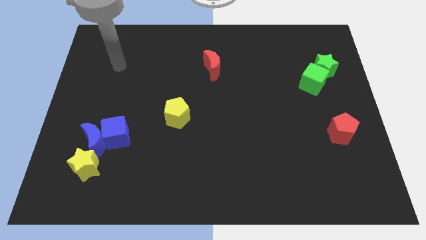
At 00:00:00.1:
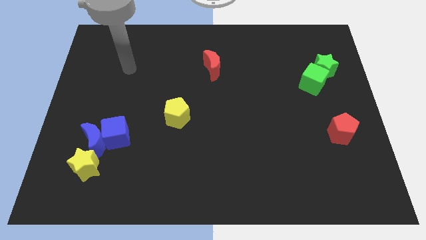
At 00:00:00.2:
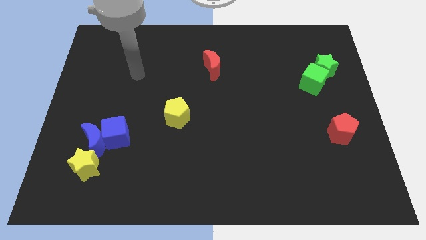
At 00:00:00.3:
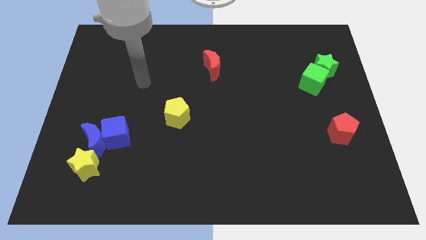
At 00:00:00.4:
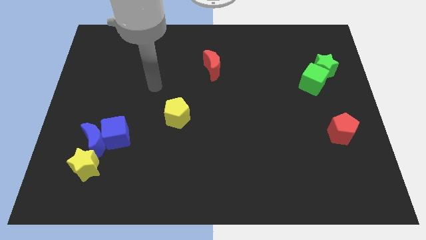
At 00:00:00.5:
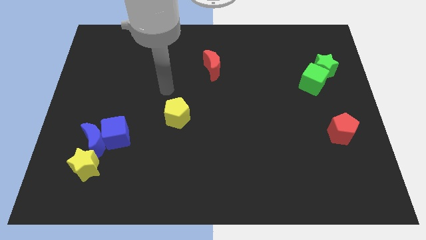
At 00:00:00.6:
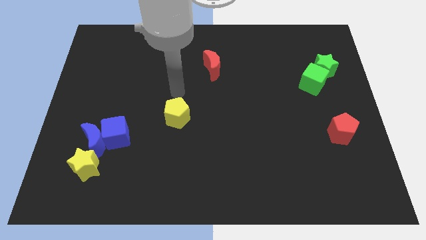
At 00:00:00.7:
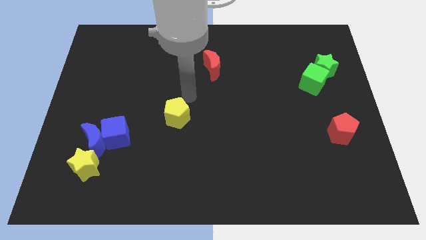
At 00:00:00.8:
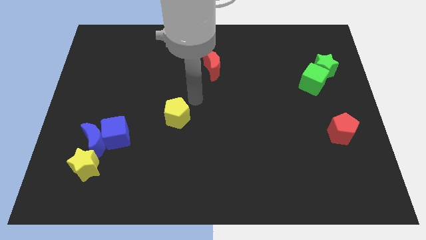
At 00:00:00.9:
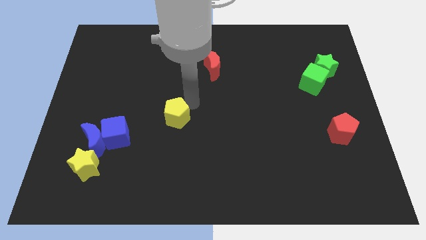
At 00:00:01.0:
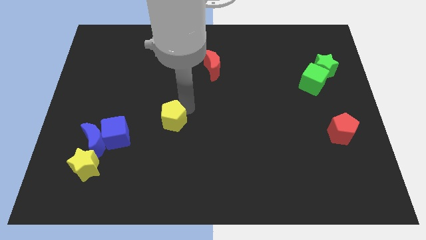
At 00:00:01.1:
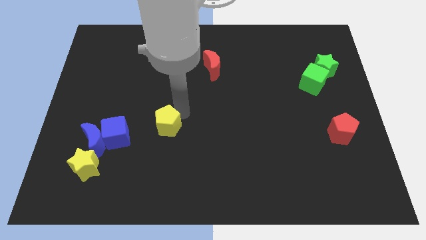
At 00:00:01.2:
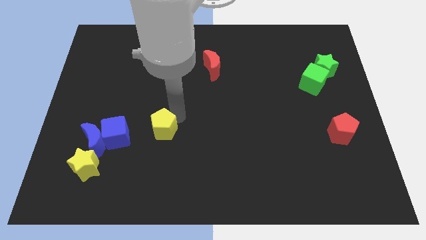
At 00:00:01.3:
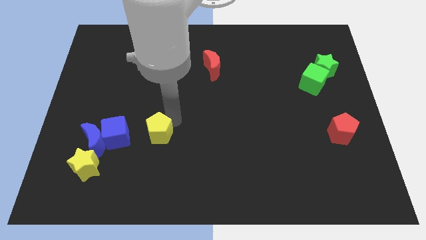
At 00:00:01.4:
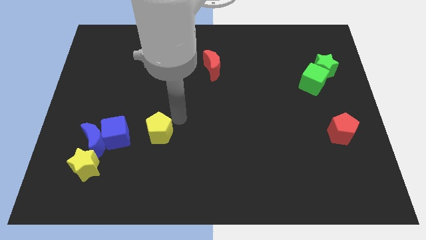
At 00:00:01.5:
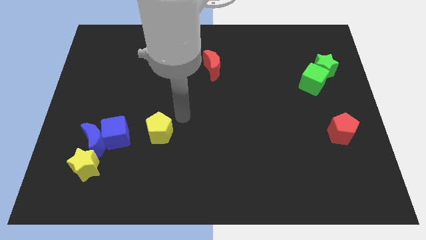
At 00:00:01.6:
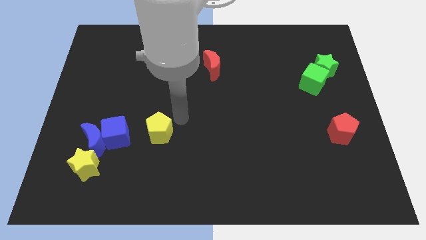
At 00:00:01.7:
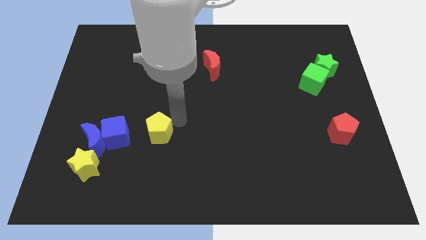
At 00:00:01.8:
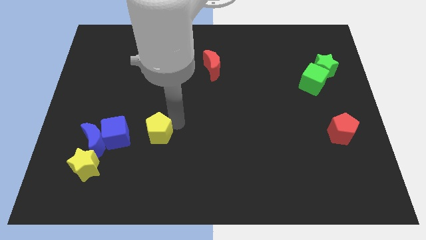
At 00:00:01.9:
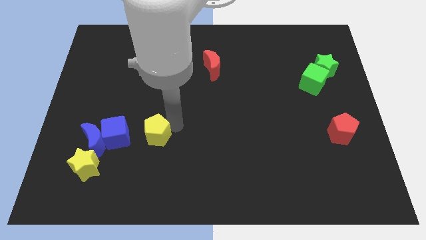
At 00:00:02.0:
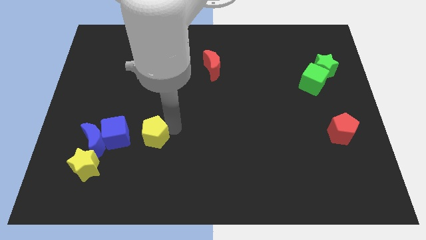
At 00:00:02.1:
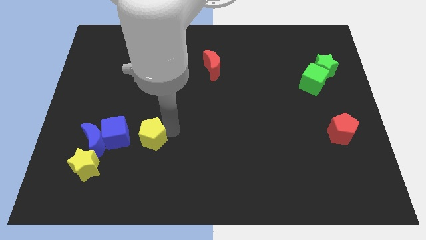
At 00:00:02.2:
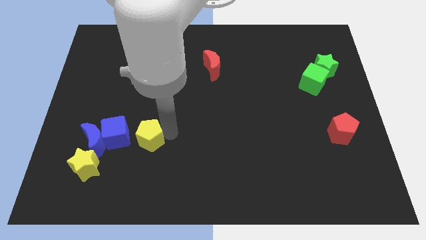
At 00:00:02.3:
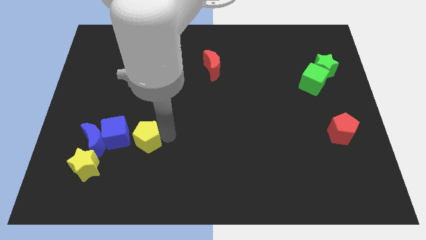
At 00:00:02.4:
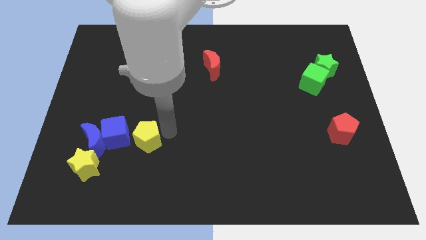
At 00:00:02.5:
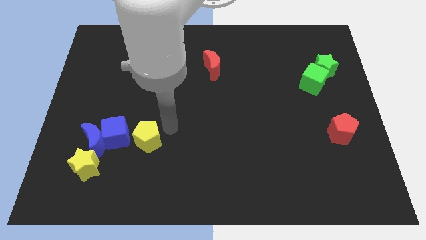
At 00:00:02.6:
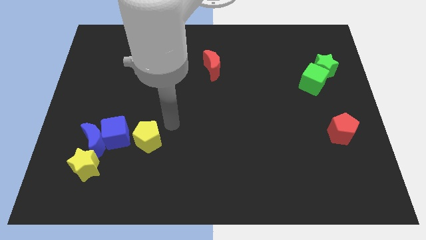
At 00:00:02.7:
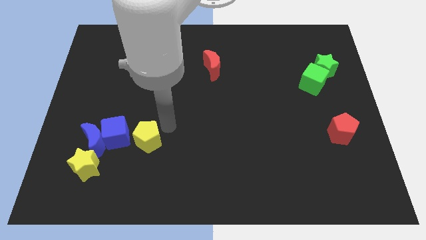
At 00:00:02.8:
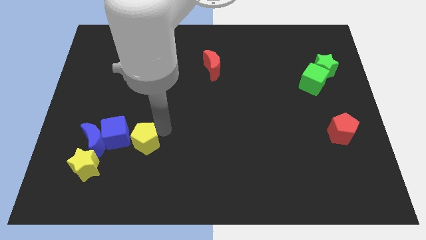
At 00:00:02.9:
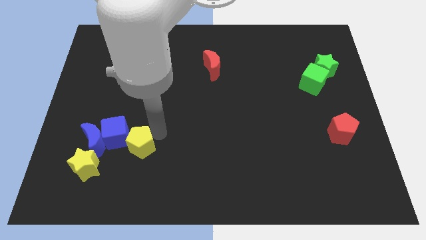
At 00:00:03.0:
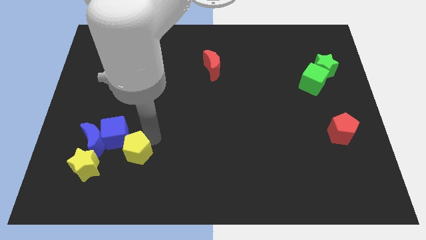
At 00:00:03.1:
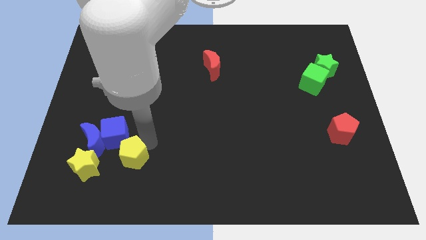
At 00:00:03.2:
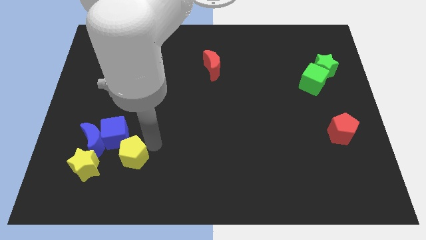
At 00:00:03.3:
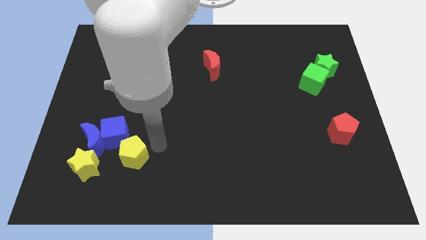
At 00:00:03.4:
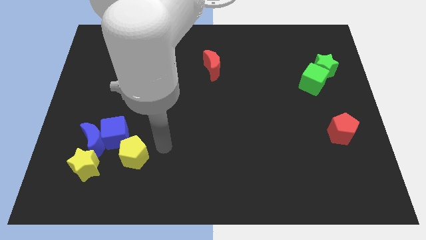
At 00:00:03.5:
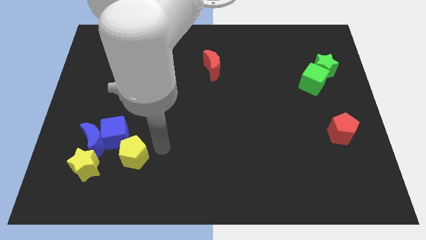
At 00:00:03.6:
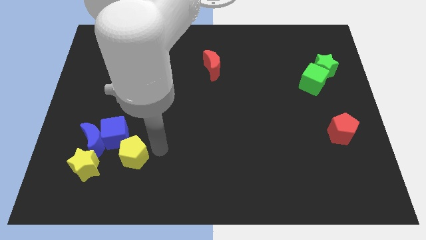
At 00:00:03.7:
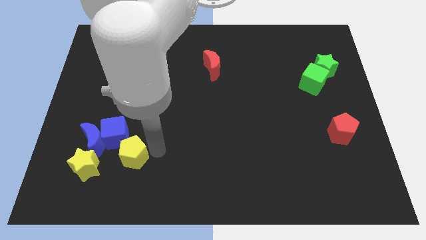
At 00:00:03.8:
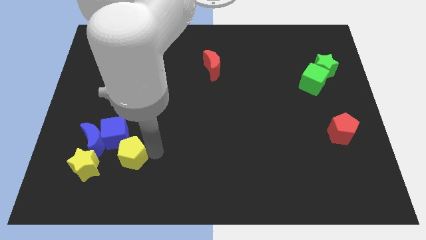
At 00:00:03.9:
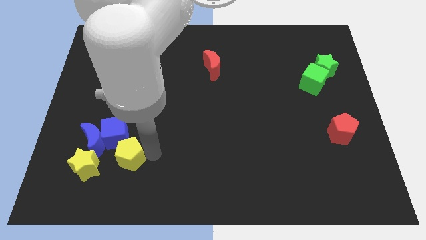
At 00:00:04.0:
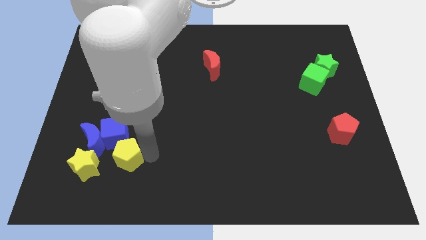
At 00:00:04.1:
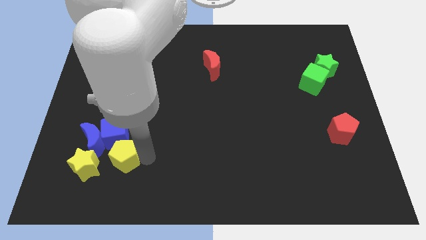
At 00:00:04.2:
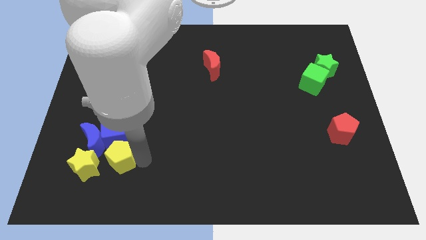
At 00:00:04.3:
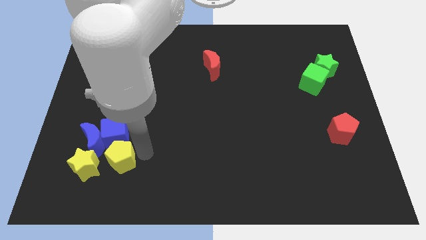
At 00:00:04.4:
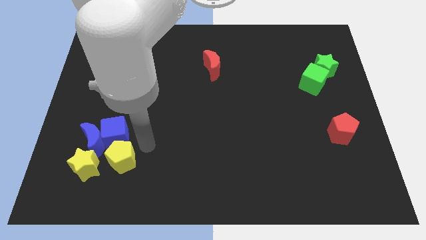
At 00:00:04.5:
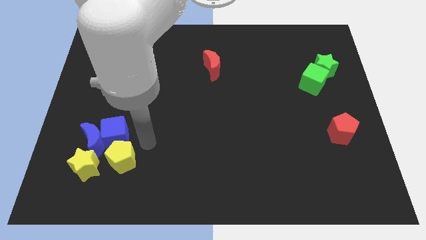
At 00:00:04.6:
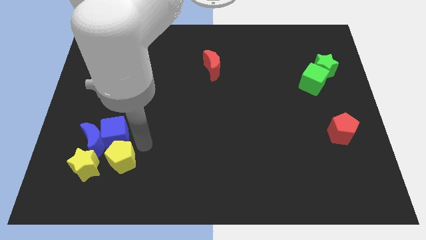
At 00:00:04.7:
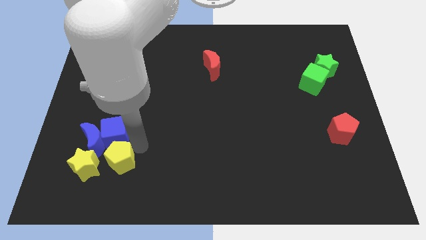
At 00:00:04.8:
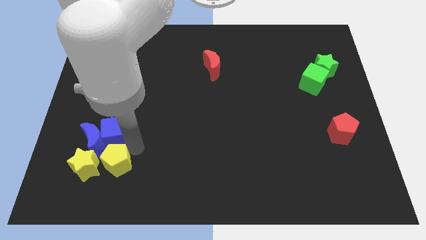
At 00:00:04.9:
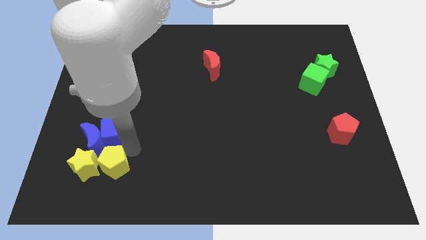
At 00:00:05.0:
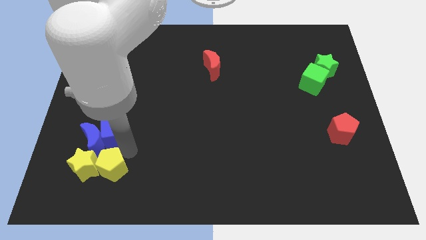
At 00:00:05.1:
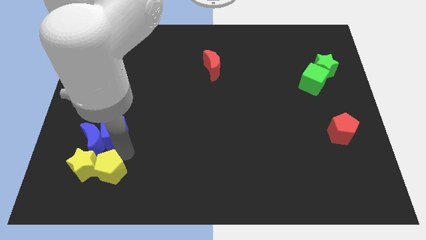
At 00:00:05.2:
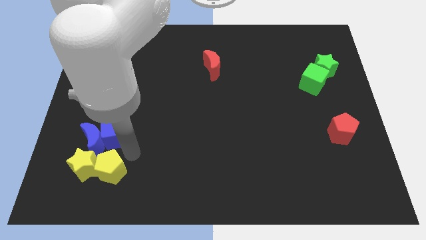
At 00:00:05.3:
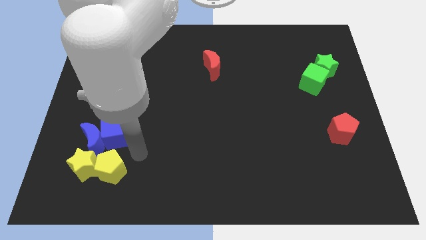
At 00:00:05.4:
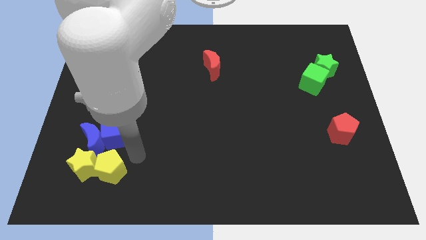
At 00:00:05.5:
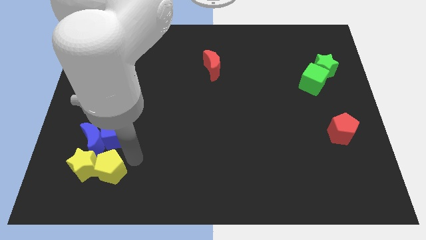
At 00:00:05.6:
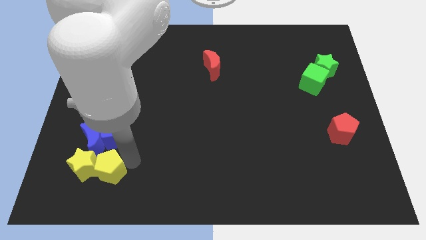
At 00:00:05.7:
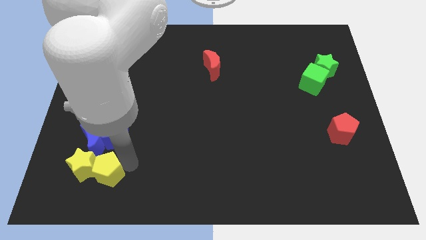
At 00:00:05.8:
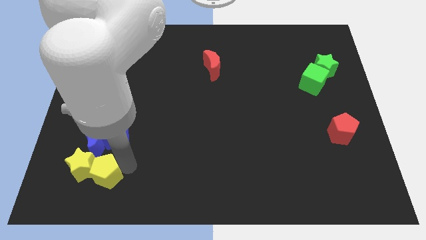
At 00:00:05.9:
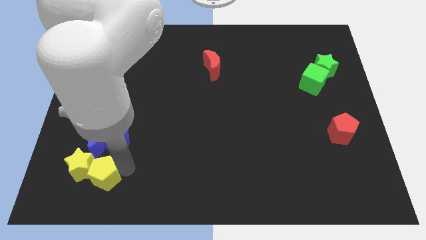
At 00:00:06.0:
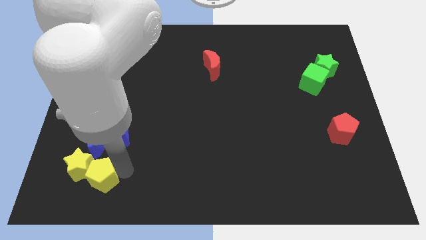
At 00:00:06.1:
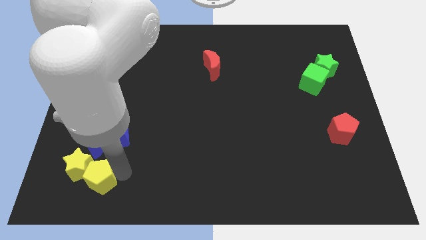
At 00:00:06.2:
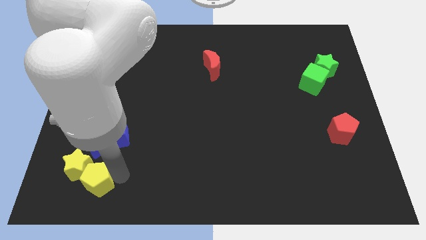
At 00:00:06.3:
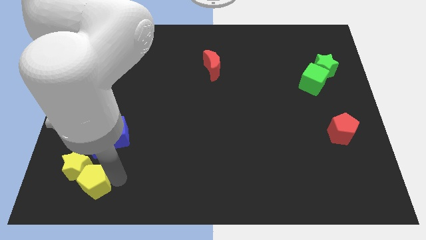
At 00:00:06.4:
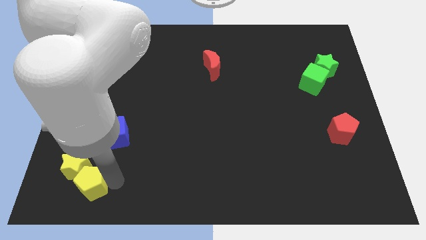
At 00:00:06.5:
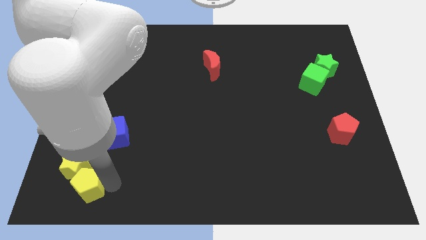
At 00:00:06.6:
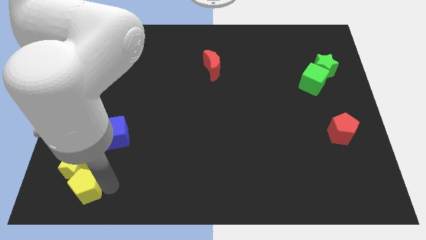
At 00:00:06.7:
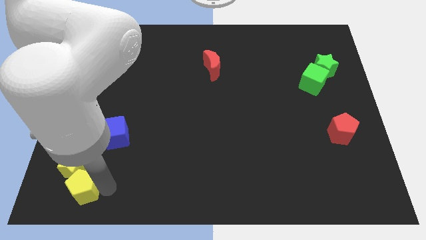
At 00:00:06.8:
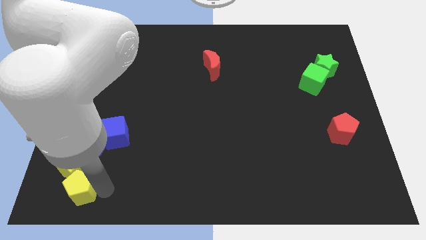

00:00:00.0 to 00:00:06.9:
push the yellow pentagon to the bottom left corner
